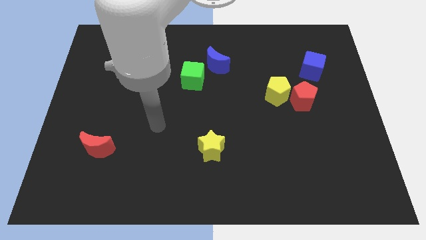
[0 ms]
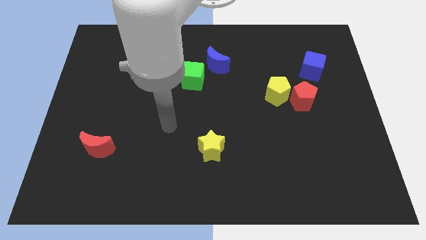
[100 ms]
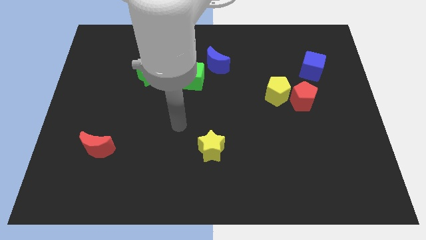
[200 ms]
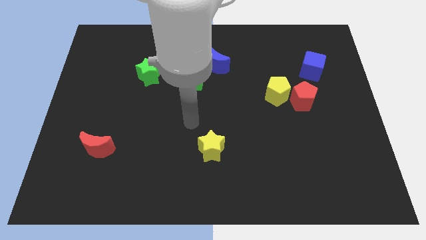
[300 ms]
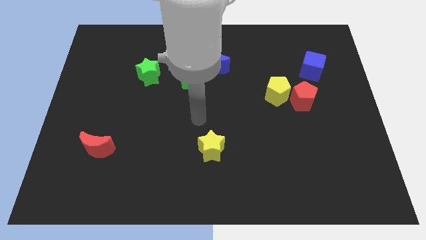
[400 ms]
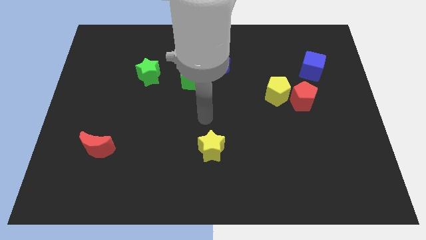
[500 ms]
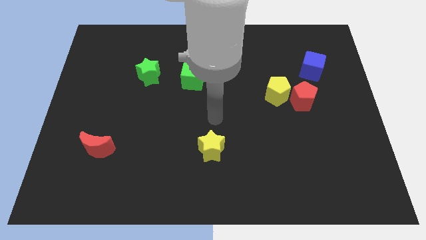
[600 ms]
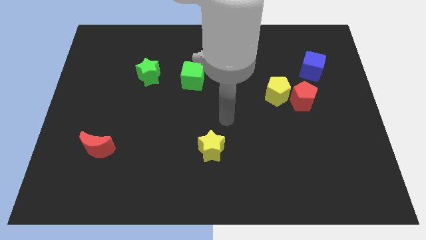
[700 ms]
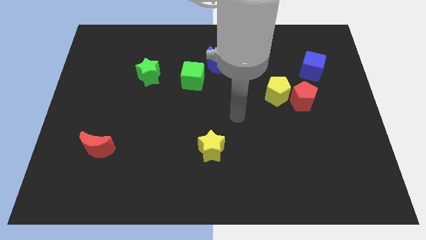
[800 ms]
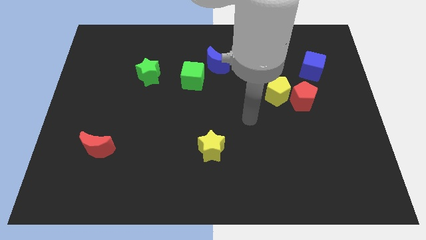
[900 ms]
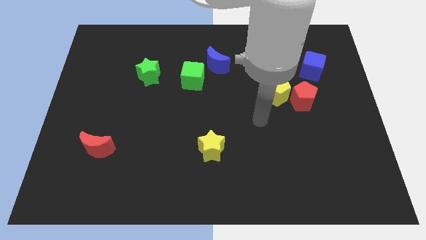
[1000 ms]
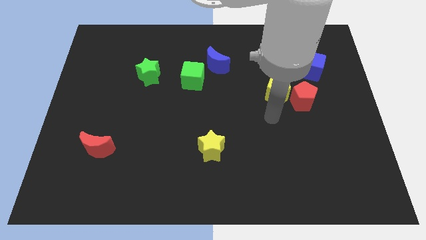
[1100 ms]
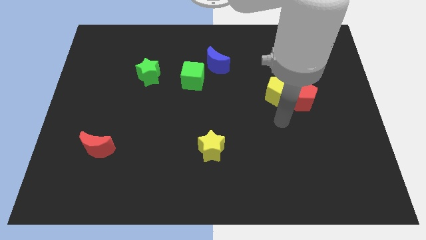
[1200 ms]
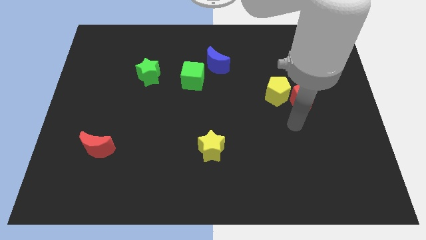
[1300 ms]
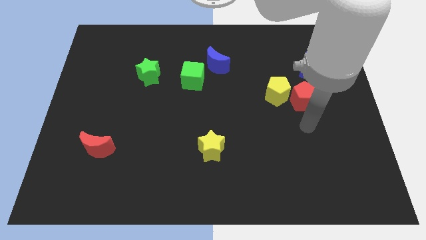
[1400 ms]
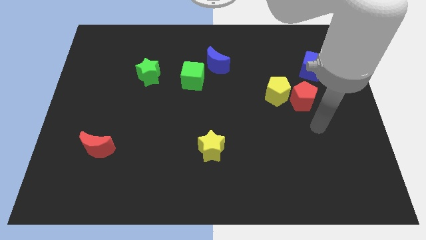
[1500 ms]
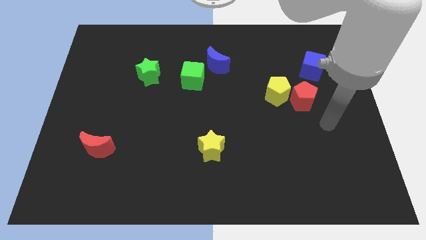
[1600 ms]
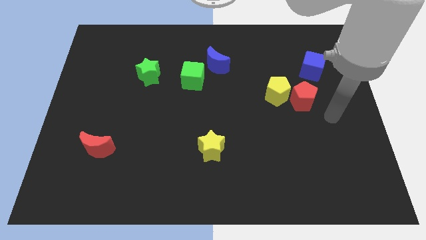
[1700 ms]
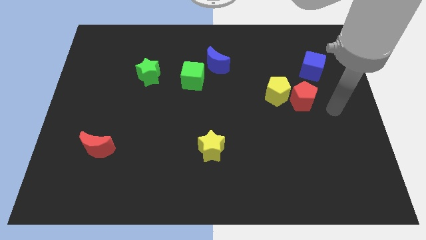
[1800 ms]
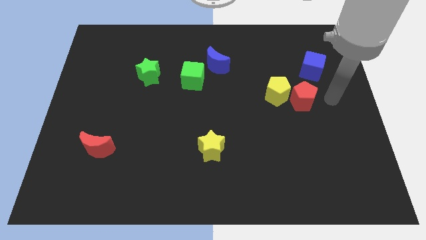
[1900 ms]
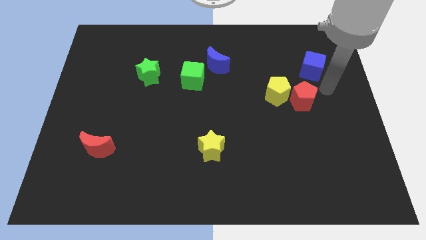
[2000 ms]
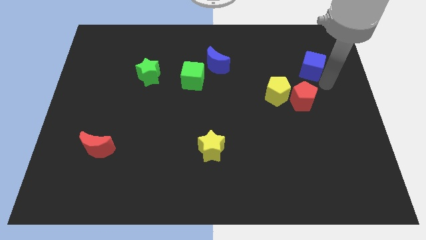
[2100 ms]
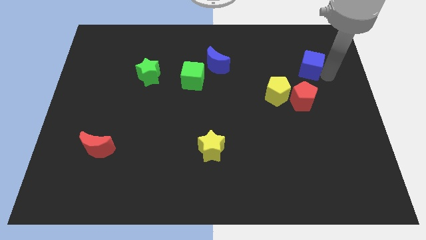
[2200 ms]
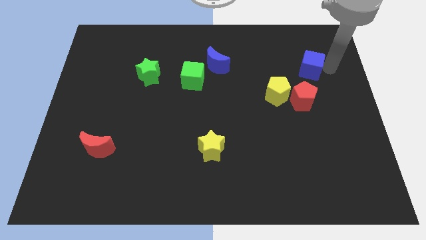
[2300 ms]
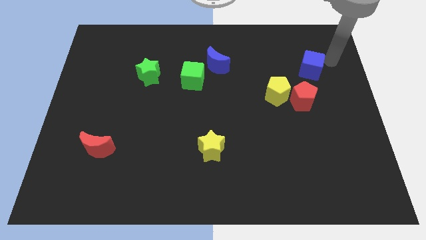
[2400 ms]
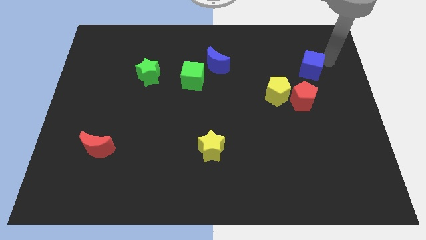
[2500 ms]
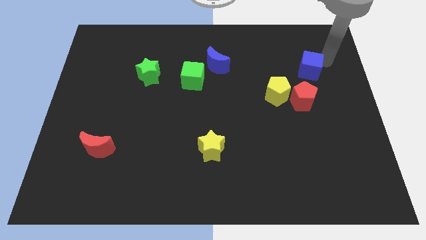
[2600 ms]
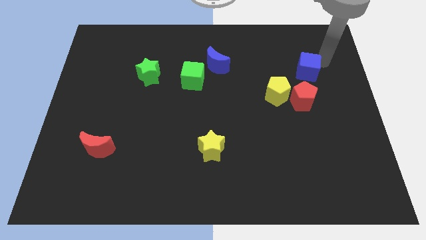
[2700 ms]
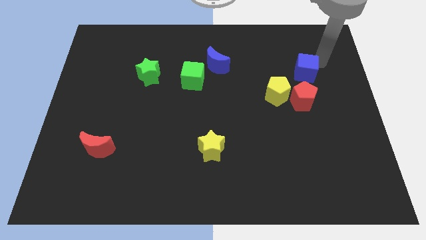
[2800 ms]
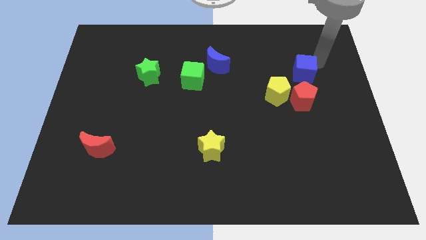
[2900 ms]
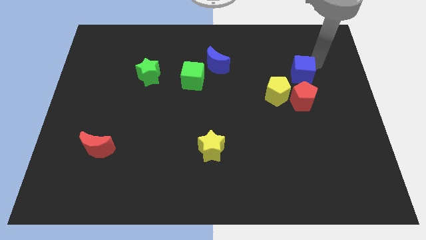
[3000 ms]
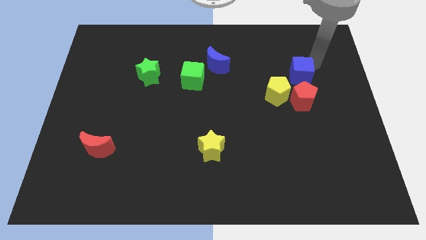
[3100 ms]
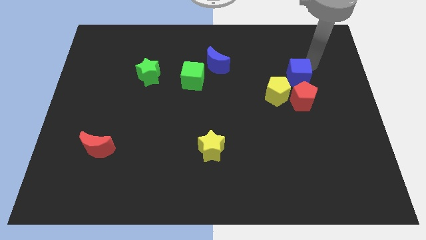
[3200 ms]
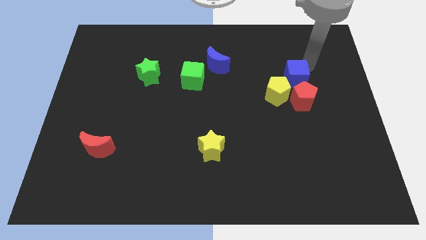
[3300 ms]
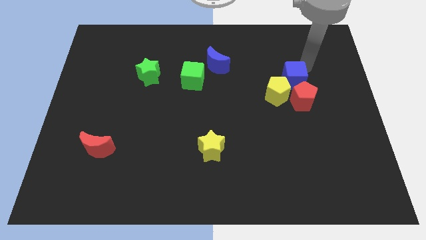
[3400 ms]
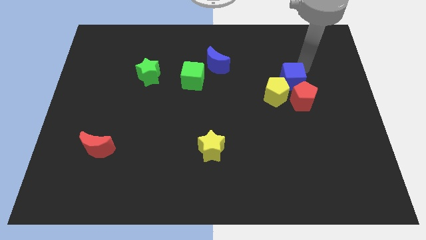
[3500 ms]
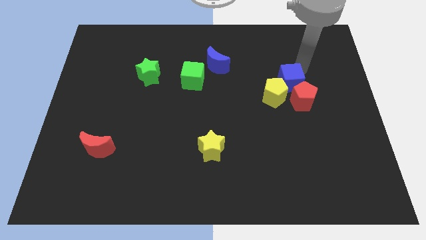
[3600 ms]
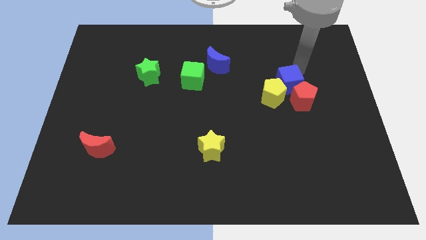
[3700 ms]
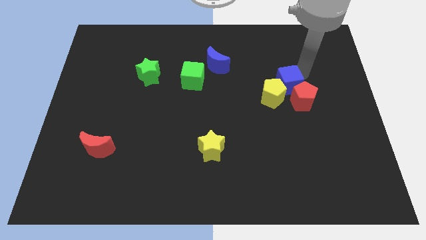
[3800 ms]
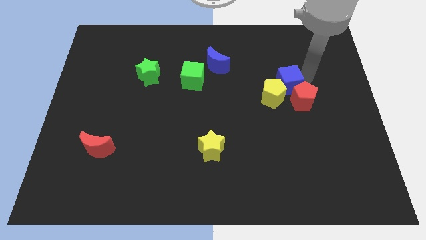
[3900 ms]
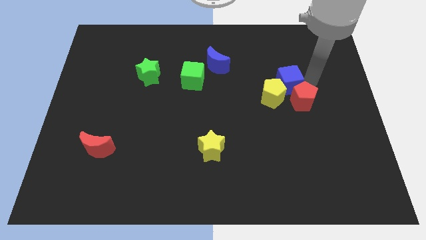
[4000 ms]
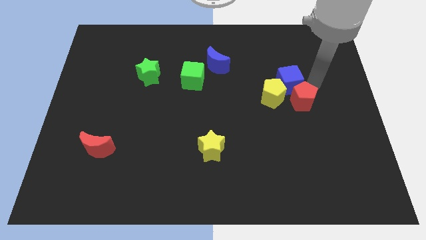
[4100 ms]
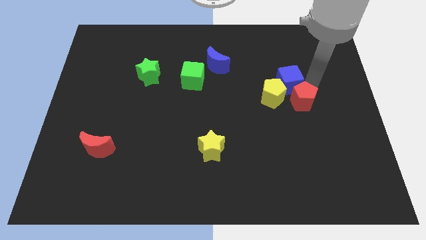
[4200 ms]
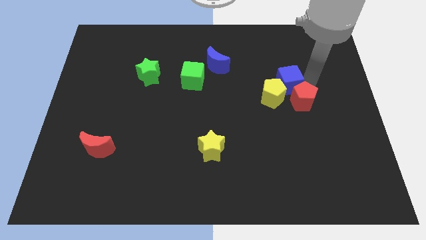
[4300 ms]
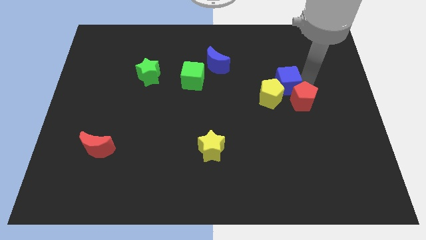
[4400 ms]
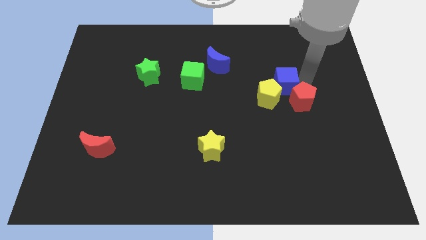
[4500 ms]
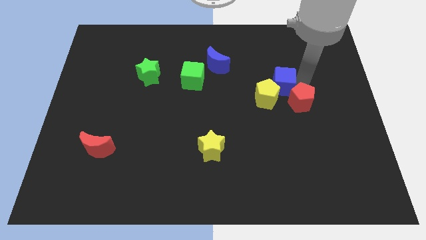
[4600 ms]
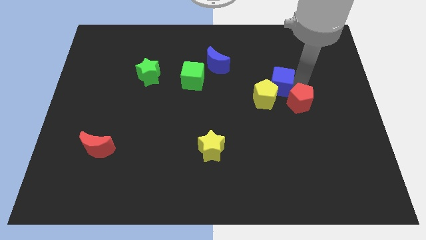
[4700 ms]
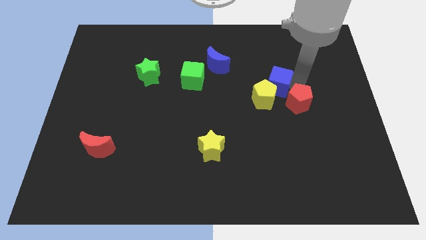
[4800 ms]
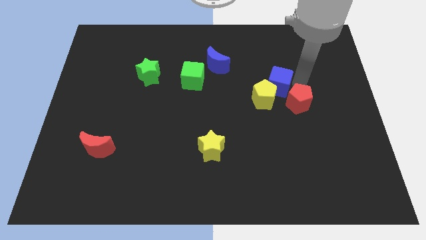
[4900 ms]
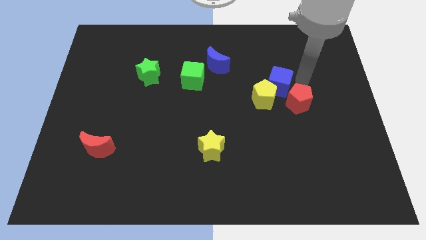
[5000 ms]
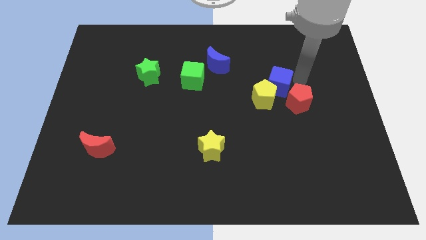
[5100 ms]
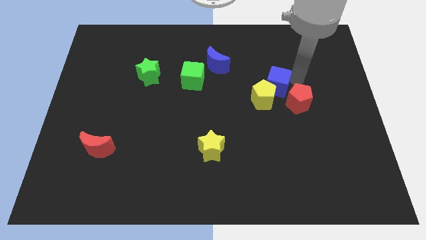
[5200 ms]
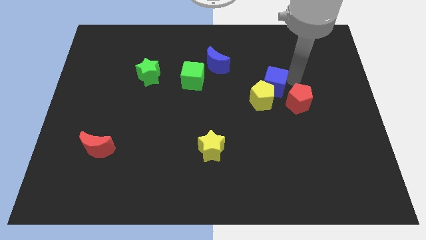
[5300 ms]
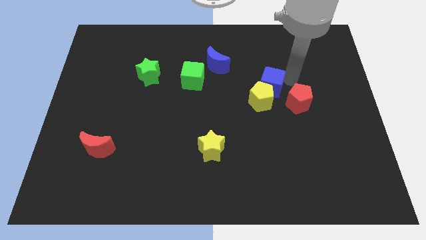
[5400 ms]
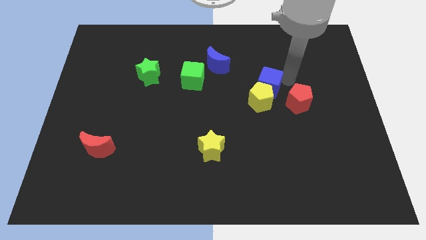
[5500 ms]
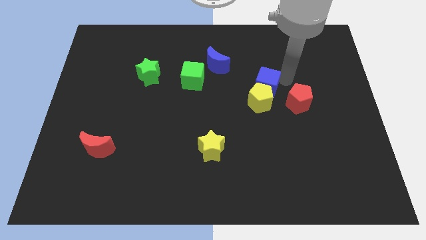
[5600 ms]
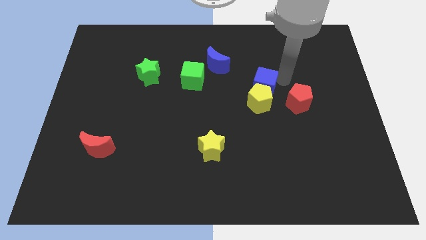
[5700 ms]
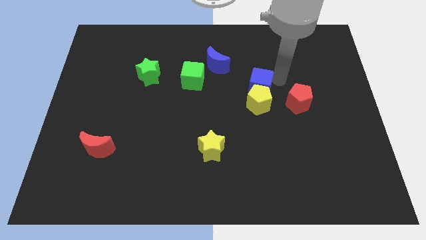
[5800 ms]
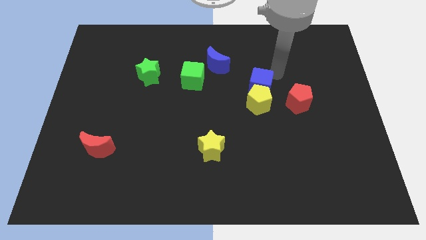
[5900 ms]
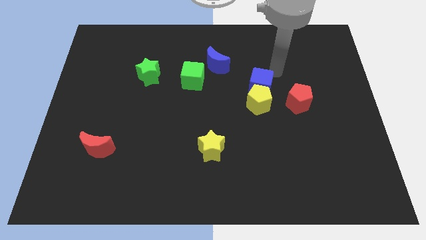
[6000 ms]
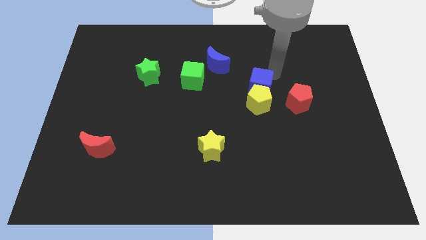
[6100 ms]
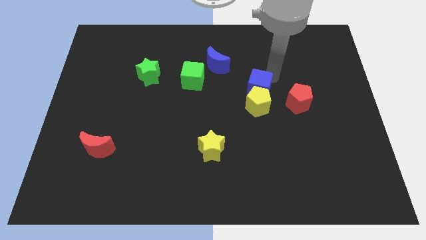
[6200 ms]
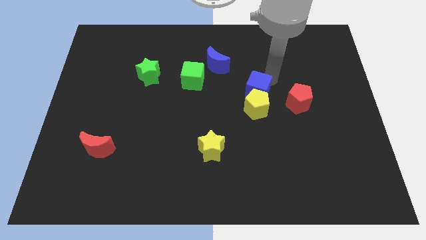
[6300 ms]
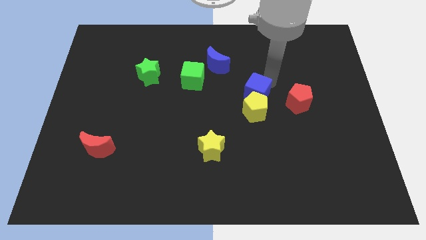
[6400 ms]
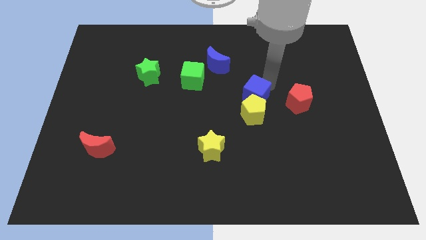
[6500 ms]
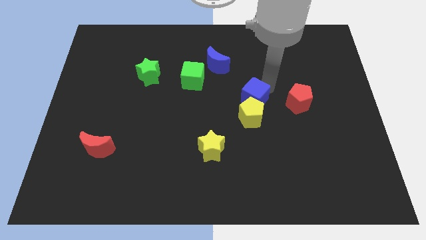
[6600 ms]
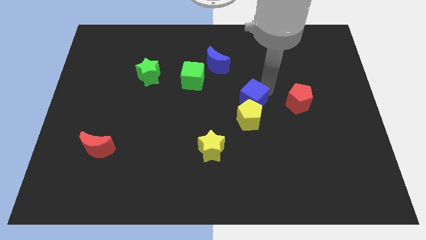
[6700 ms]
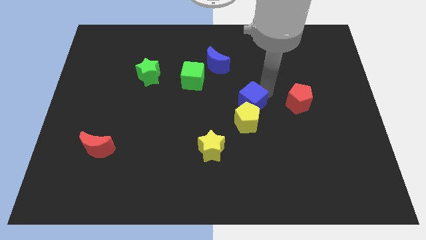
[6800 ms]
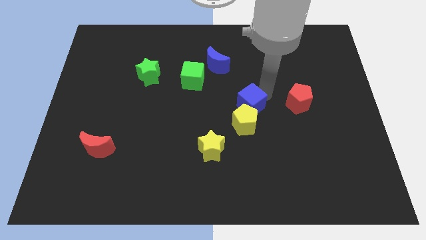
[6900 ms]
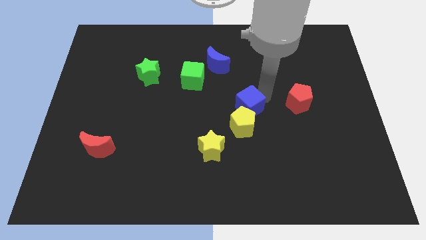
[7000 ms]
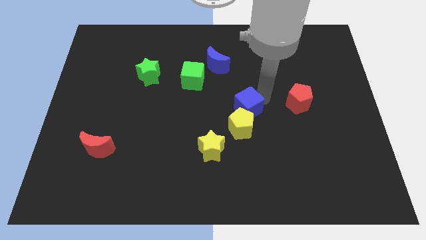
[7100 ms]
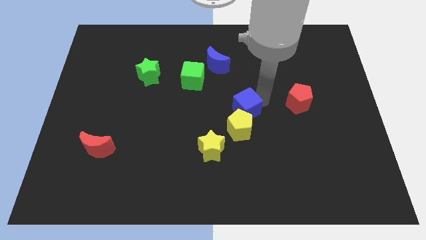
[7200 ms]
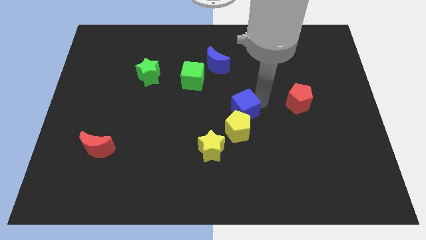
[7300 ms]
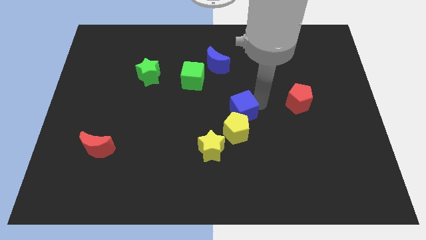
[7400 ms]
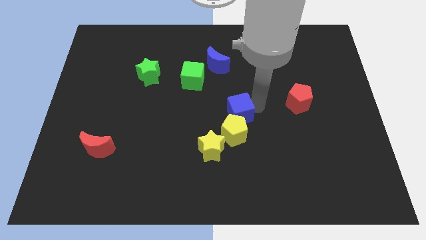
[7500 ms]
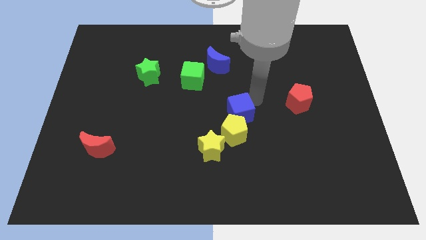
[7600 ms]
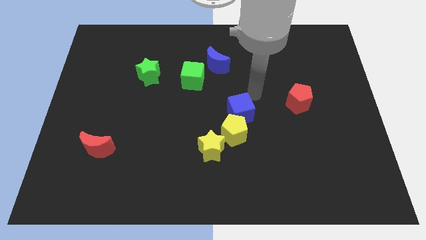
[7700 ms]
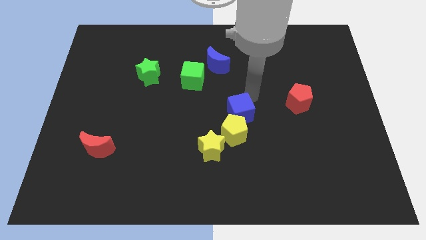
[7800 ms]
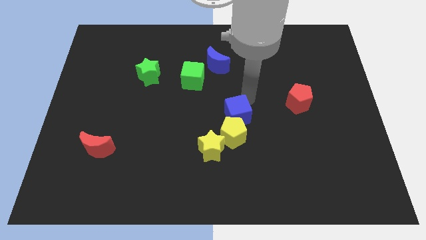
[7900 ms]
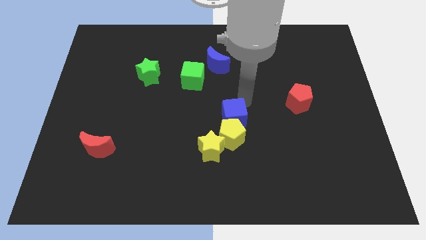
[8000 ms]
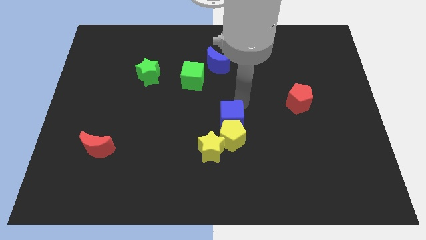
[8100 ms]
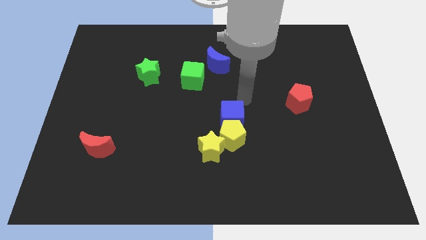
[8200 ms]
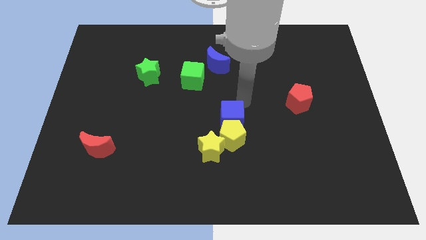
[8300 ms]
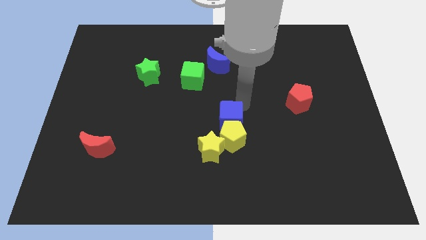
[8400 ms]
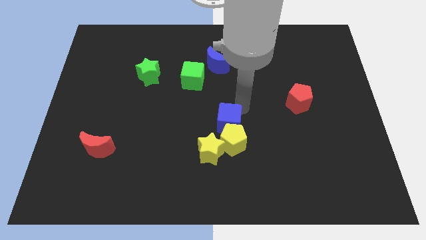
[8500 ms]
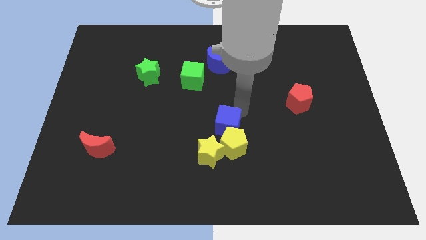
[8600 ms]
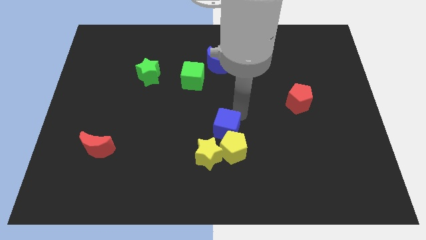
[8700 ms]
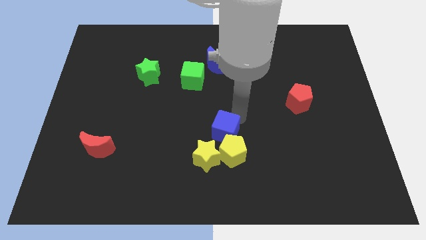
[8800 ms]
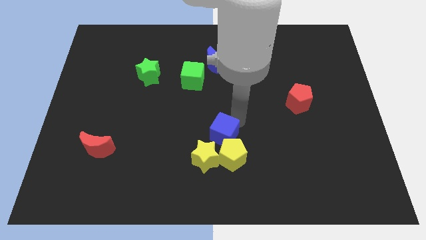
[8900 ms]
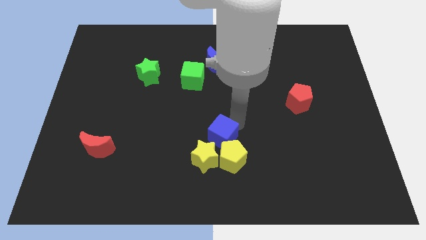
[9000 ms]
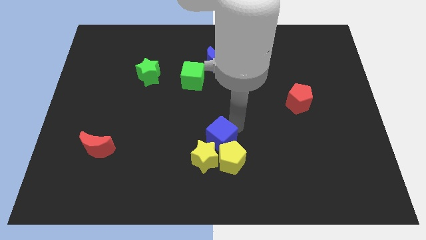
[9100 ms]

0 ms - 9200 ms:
push the blue cube close to the yellow star
